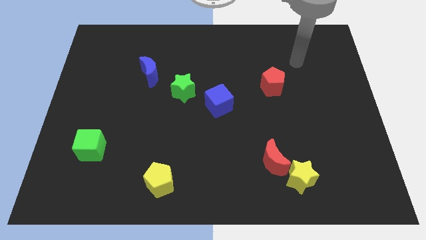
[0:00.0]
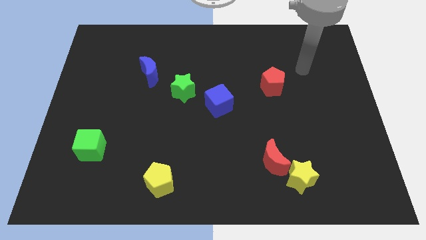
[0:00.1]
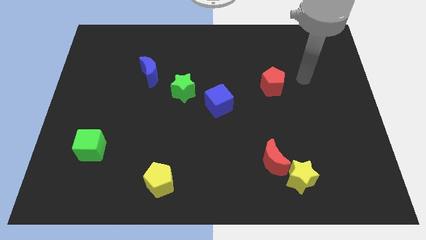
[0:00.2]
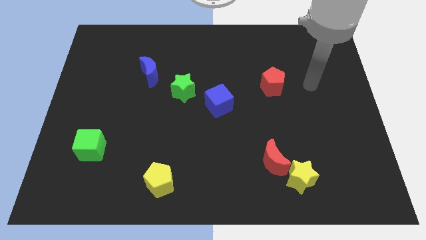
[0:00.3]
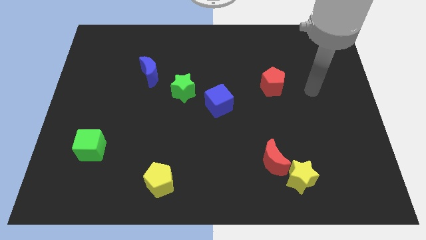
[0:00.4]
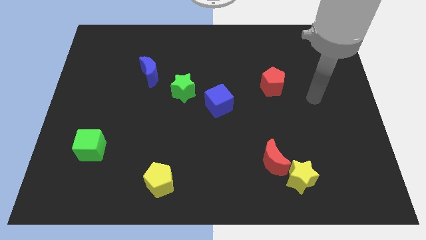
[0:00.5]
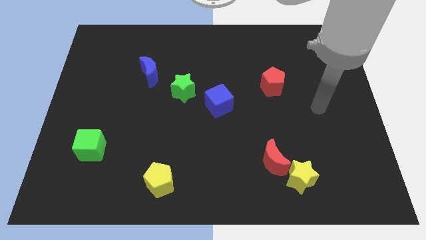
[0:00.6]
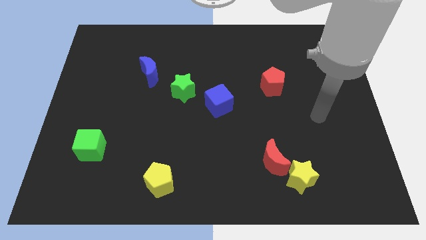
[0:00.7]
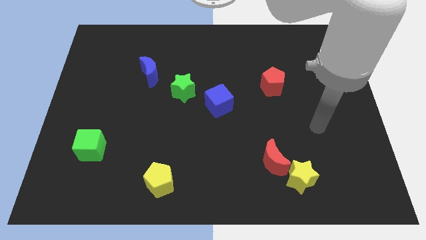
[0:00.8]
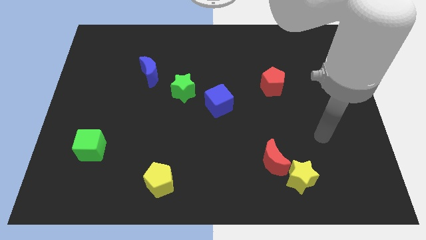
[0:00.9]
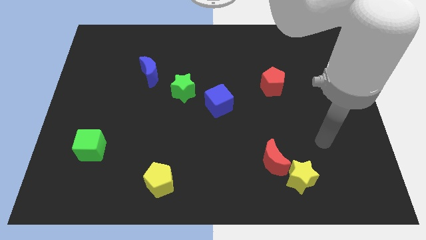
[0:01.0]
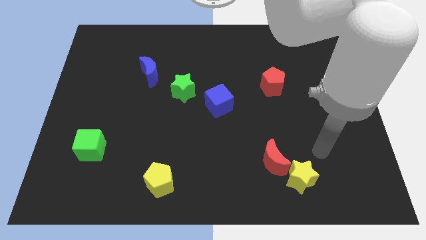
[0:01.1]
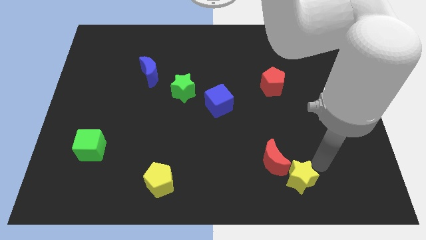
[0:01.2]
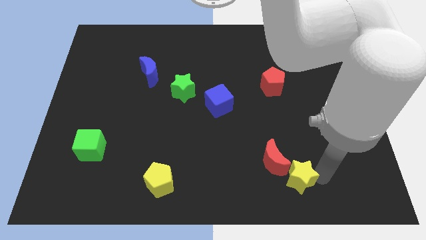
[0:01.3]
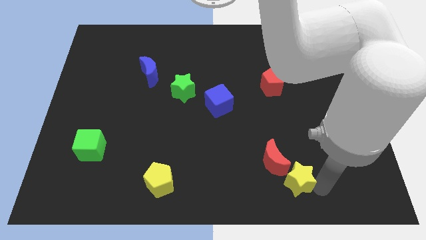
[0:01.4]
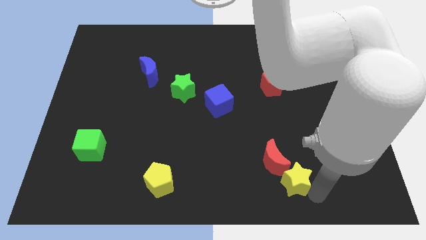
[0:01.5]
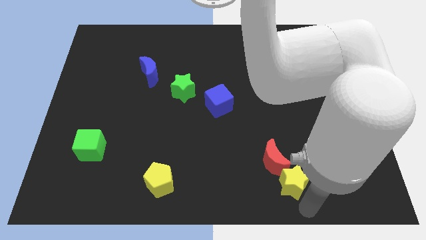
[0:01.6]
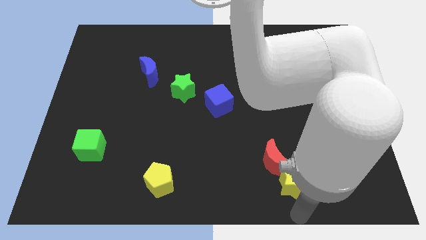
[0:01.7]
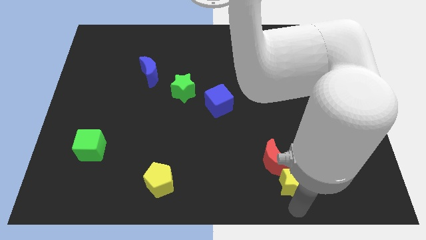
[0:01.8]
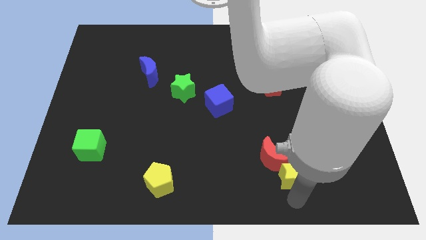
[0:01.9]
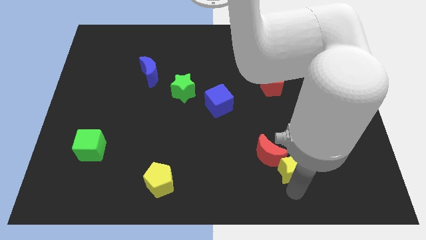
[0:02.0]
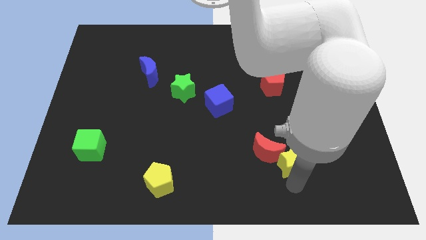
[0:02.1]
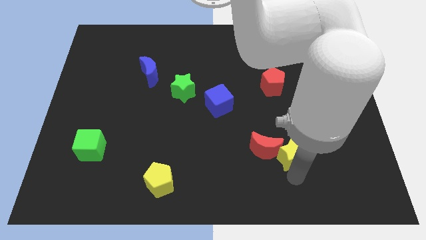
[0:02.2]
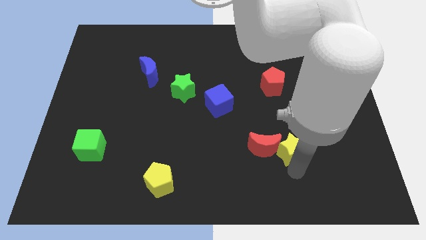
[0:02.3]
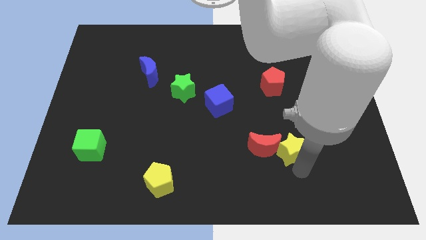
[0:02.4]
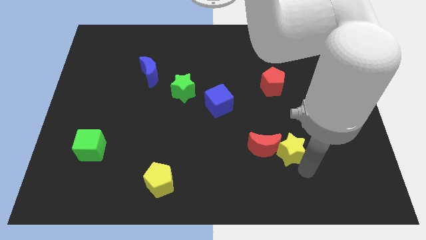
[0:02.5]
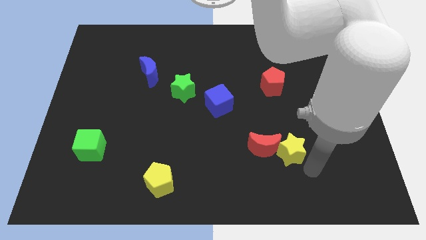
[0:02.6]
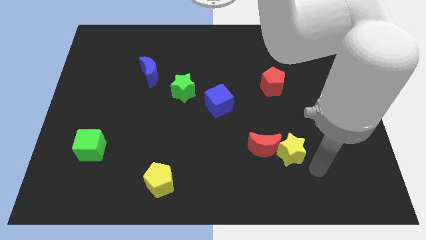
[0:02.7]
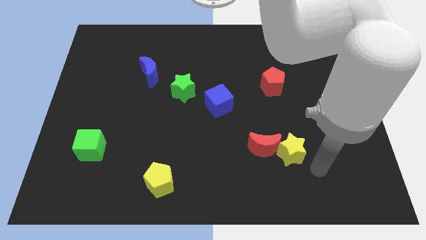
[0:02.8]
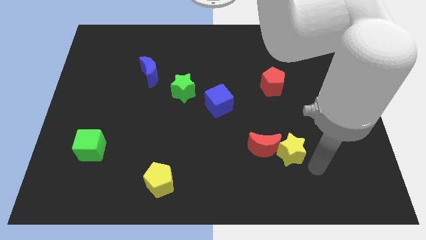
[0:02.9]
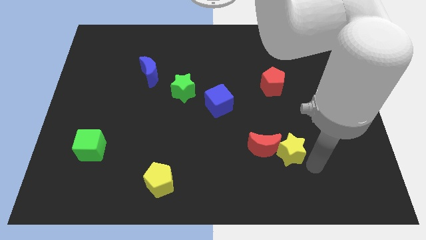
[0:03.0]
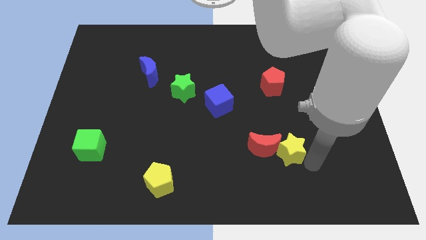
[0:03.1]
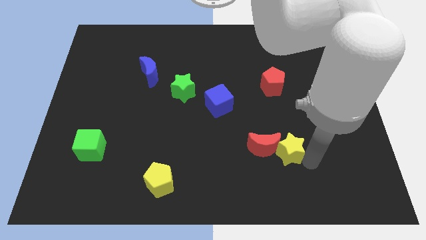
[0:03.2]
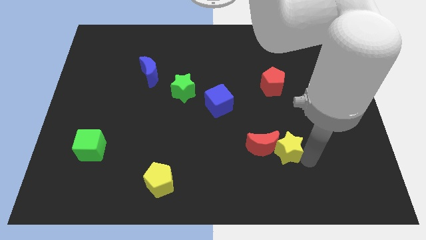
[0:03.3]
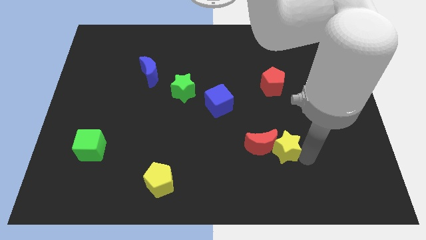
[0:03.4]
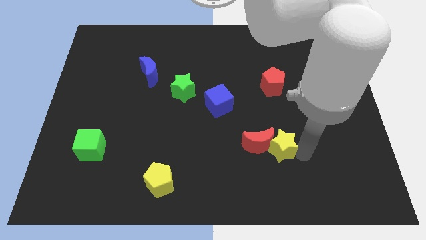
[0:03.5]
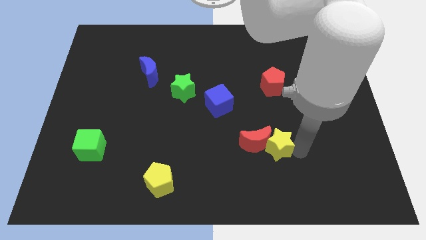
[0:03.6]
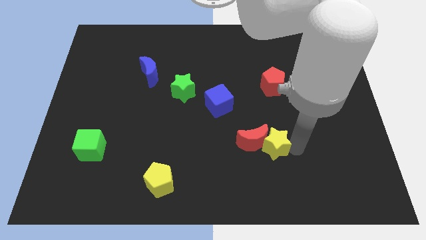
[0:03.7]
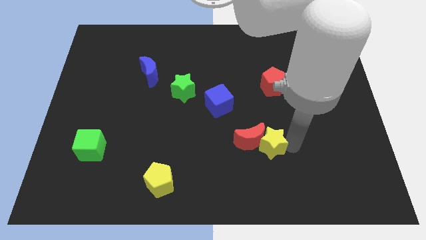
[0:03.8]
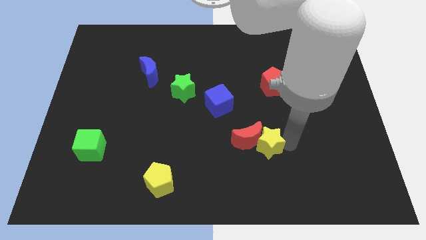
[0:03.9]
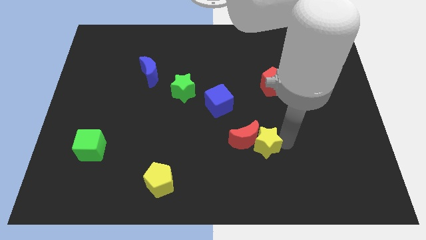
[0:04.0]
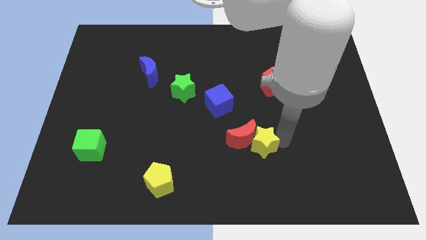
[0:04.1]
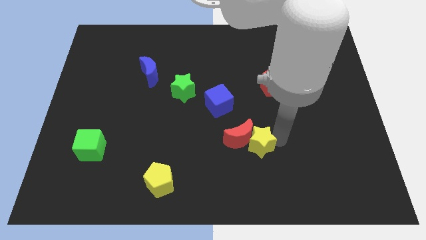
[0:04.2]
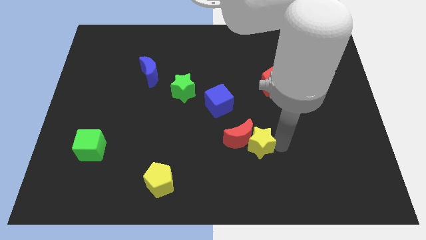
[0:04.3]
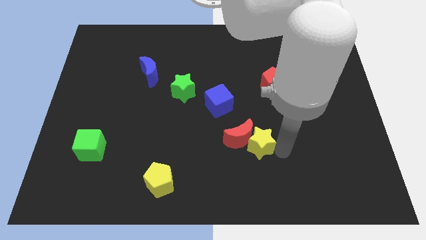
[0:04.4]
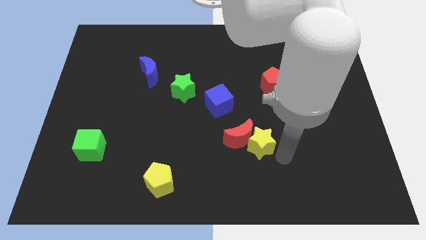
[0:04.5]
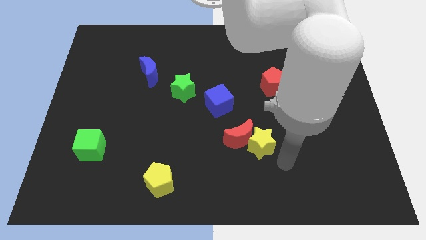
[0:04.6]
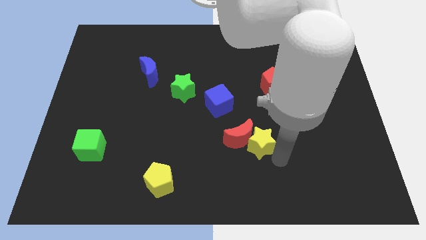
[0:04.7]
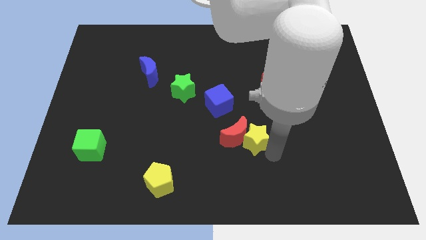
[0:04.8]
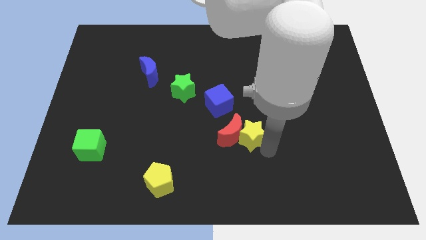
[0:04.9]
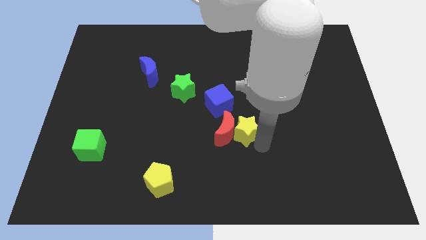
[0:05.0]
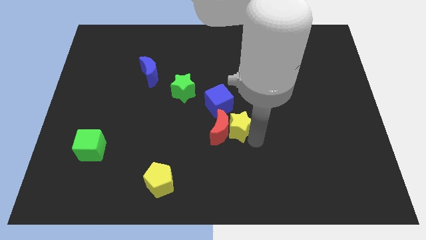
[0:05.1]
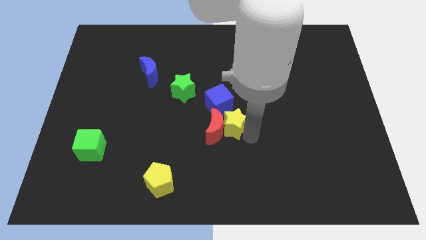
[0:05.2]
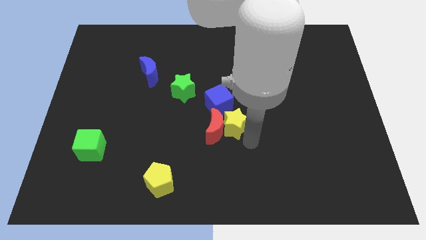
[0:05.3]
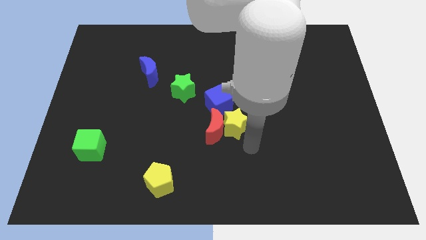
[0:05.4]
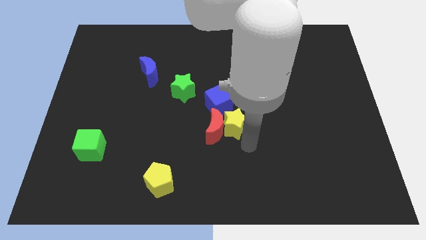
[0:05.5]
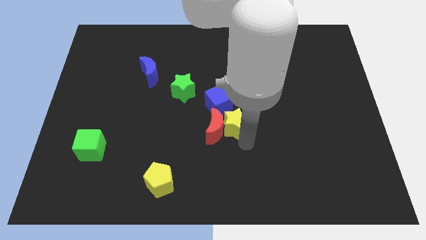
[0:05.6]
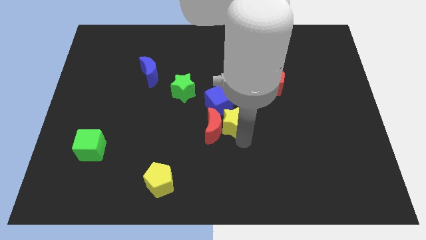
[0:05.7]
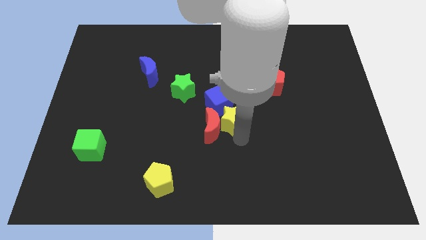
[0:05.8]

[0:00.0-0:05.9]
slide the yellow star towards the blue cube

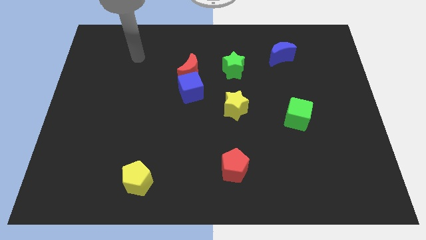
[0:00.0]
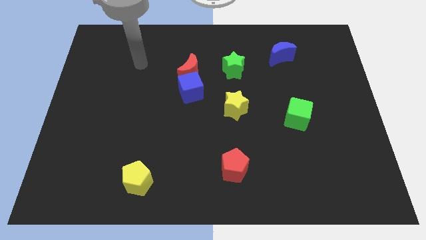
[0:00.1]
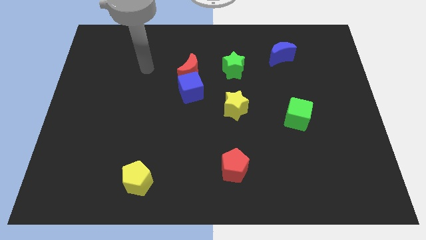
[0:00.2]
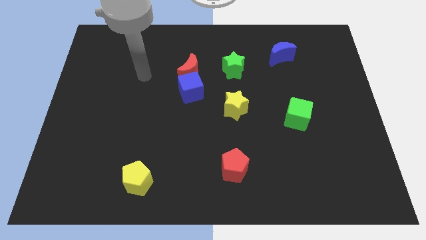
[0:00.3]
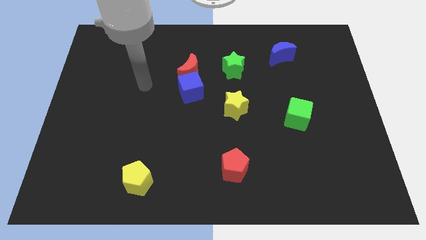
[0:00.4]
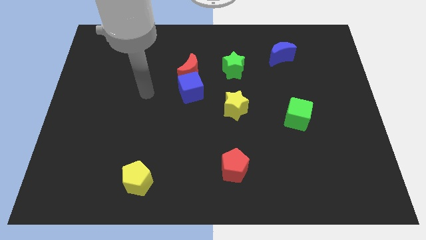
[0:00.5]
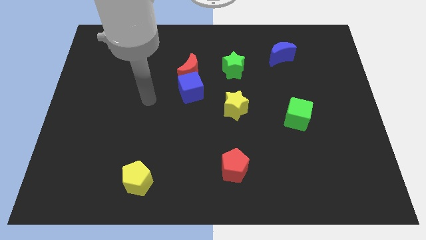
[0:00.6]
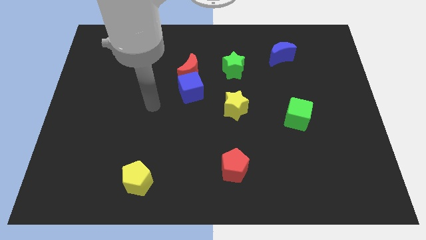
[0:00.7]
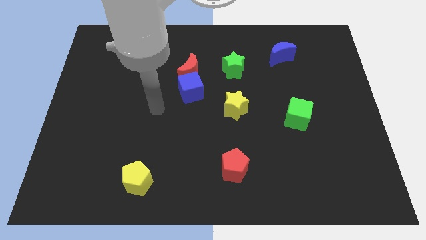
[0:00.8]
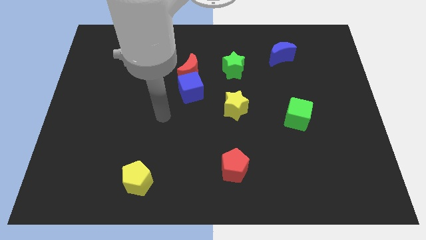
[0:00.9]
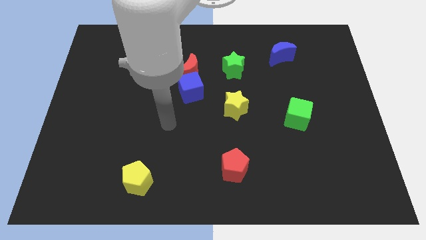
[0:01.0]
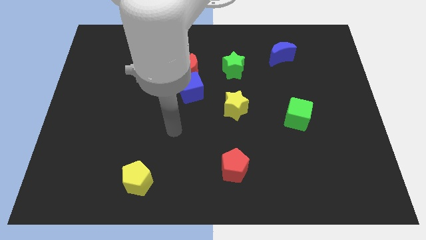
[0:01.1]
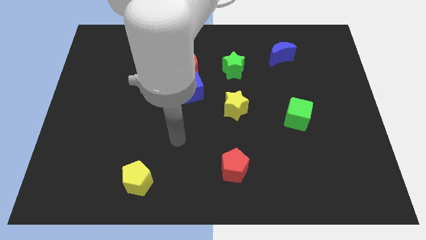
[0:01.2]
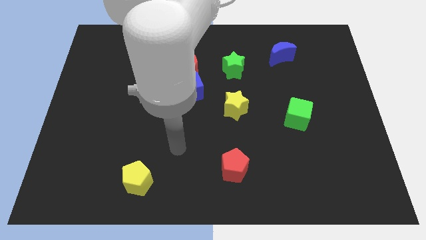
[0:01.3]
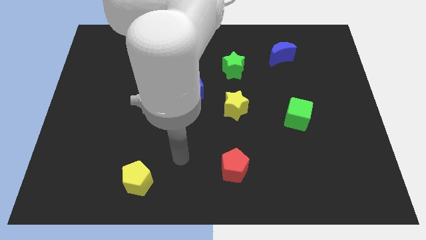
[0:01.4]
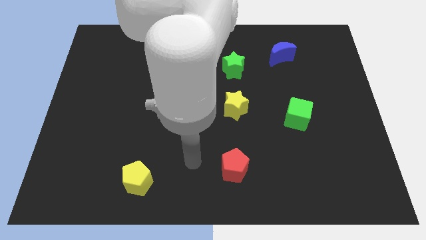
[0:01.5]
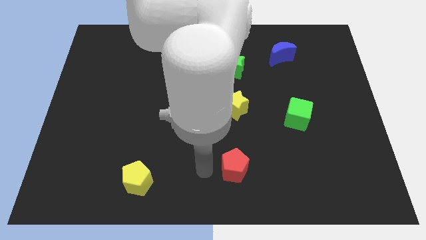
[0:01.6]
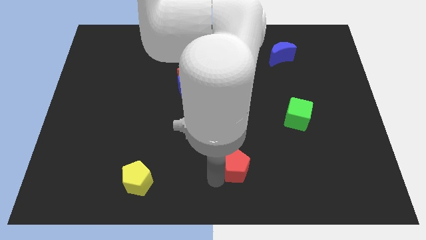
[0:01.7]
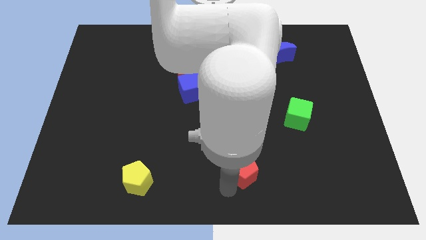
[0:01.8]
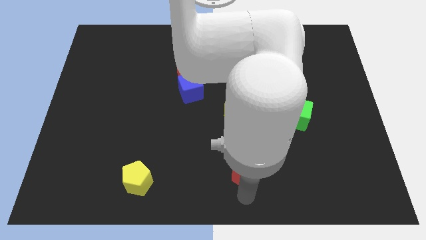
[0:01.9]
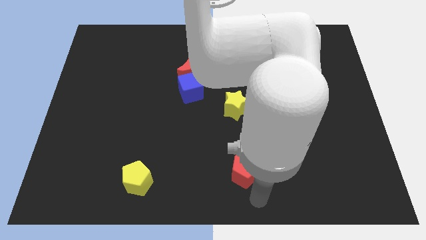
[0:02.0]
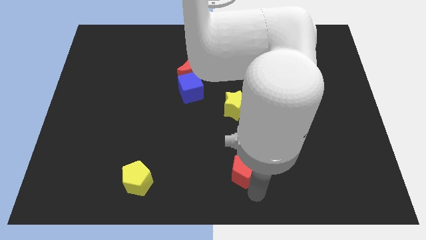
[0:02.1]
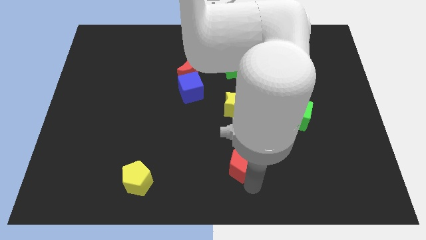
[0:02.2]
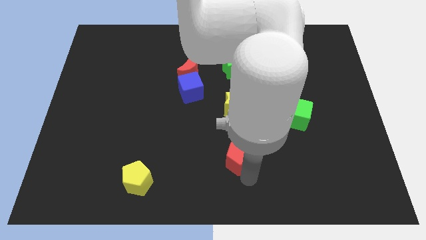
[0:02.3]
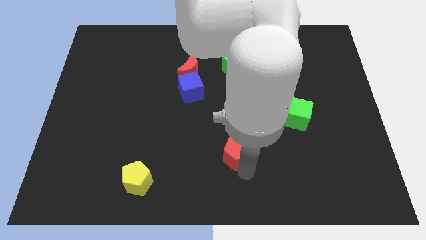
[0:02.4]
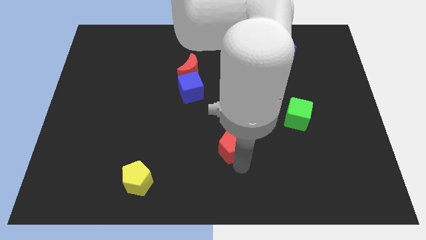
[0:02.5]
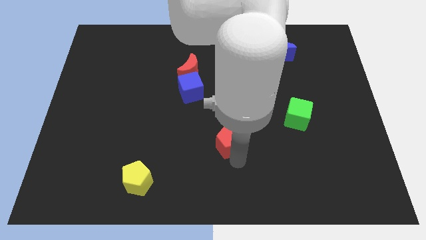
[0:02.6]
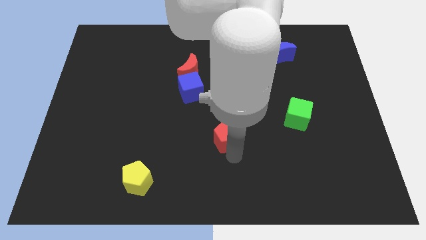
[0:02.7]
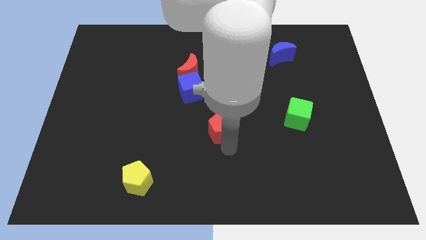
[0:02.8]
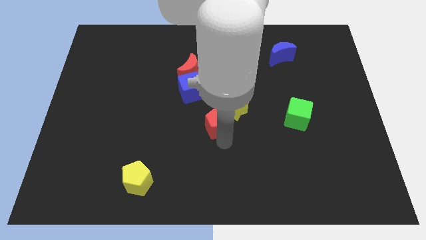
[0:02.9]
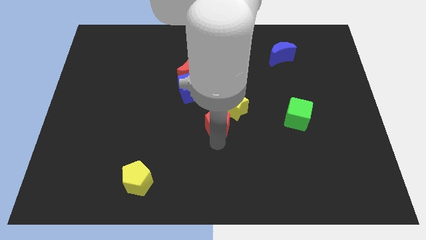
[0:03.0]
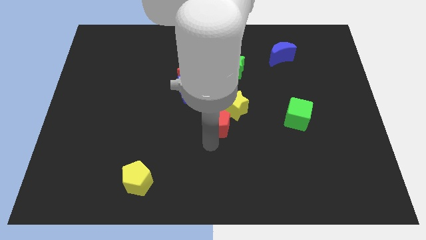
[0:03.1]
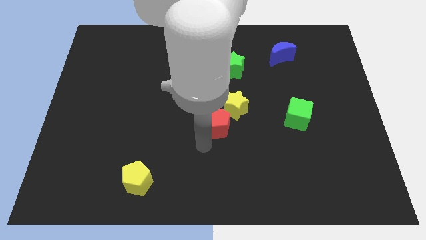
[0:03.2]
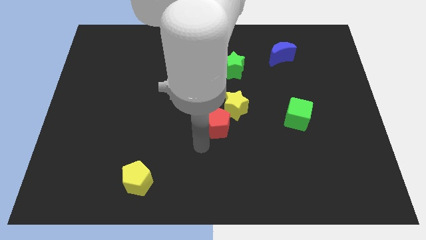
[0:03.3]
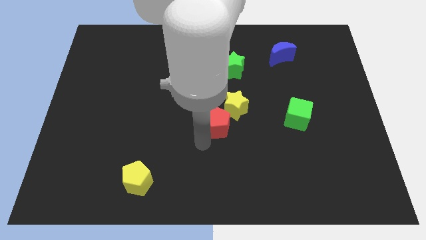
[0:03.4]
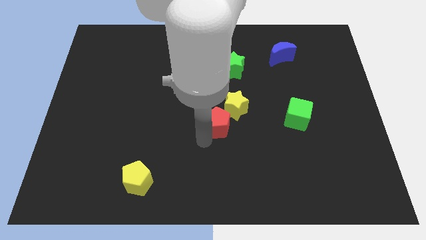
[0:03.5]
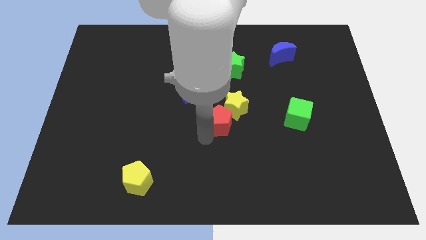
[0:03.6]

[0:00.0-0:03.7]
slide the red pentagon towards the yellow star
